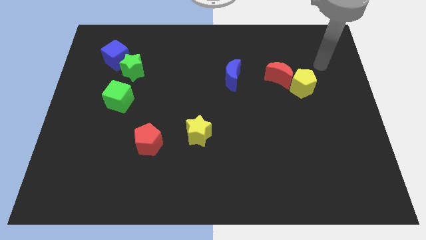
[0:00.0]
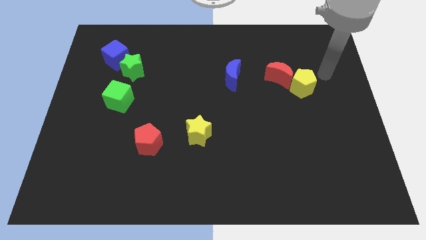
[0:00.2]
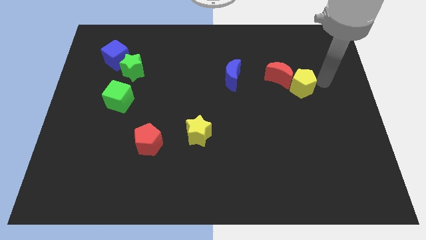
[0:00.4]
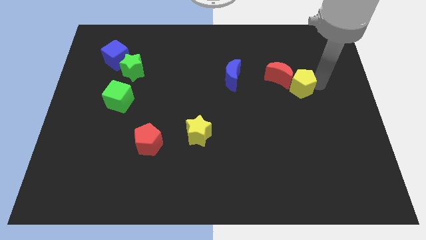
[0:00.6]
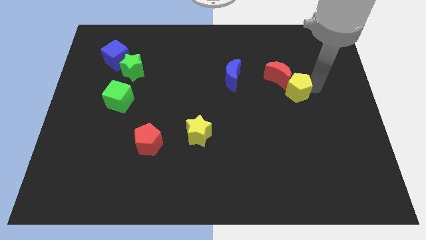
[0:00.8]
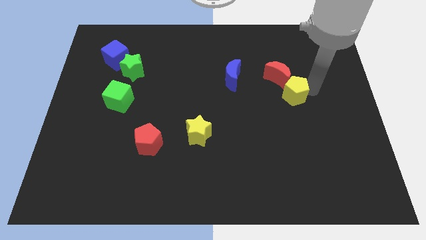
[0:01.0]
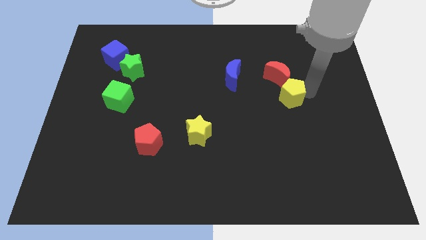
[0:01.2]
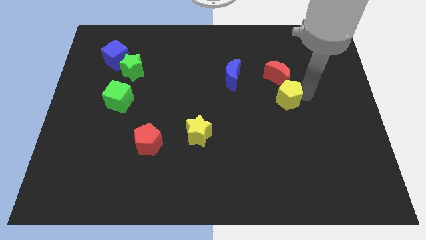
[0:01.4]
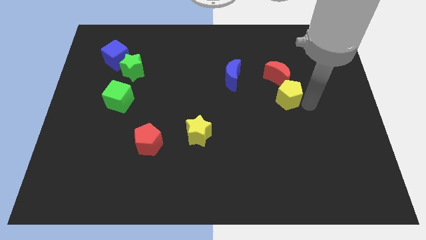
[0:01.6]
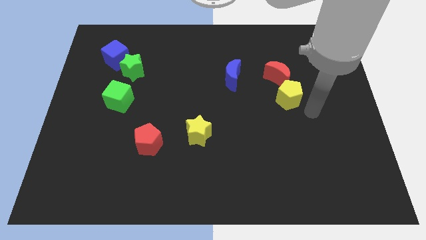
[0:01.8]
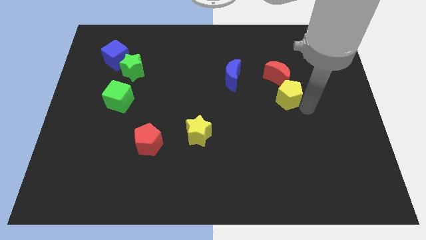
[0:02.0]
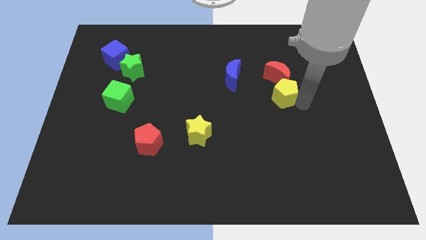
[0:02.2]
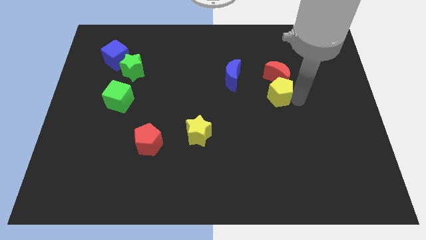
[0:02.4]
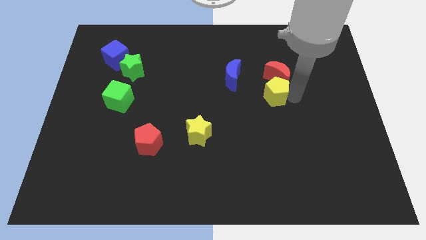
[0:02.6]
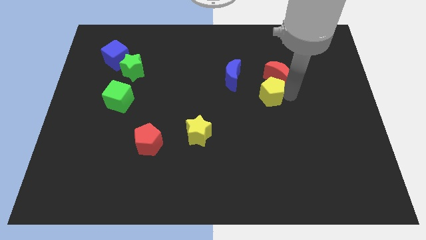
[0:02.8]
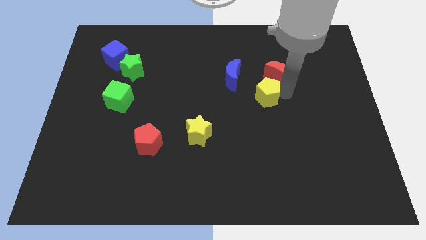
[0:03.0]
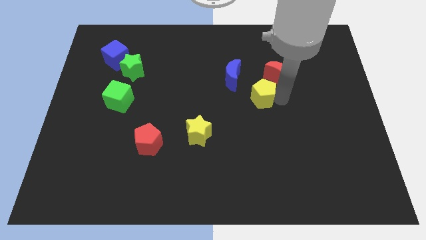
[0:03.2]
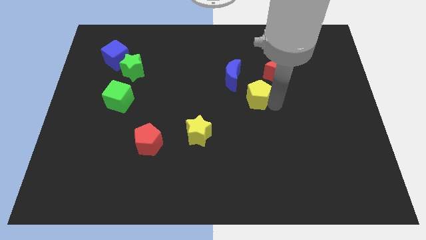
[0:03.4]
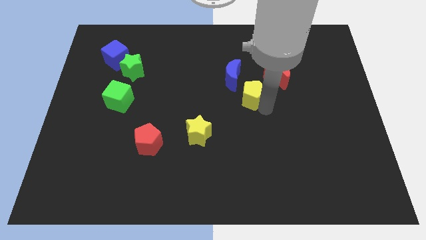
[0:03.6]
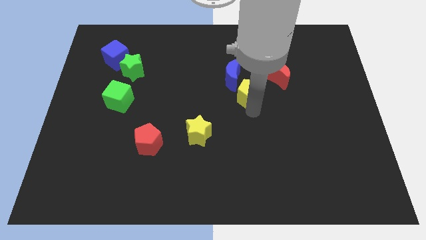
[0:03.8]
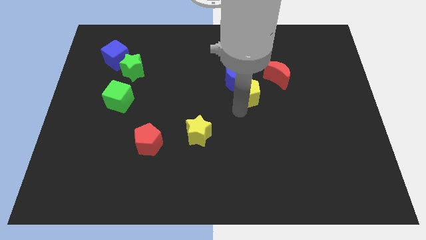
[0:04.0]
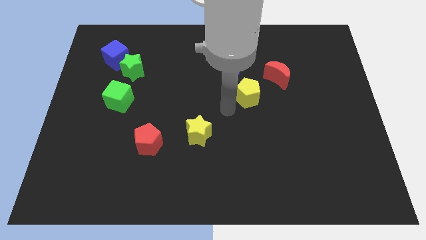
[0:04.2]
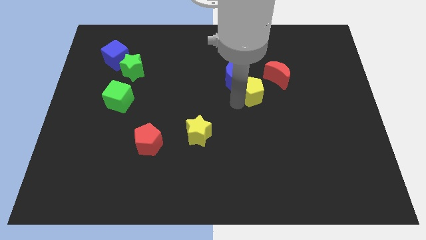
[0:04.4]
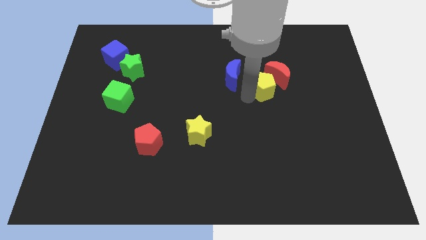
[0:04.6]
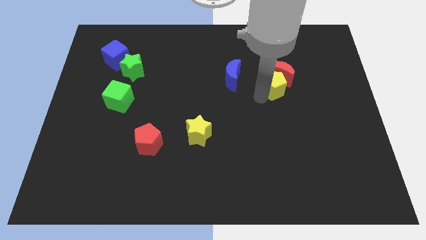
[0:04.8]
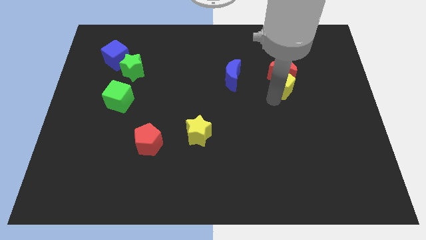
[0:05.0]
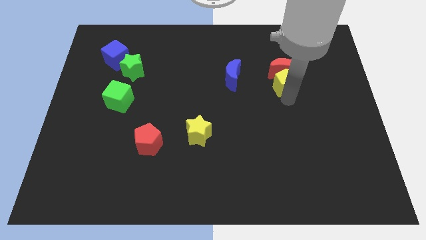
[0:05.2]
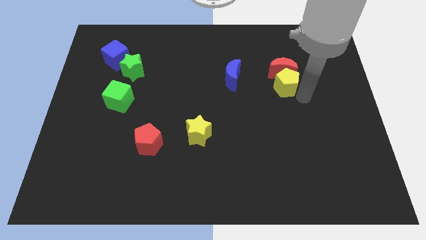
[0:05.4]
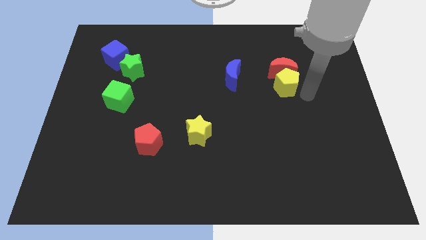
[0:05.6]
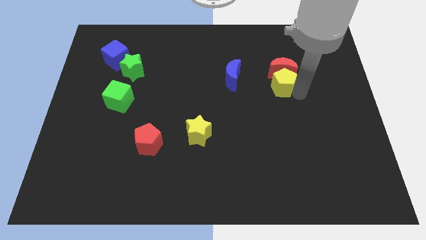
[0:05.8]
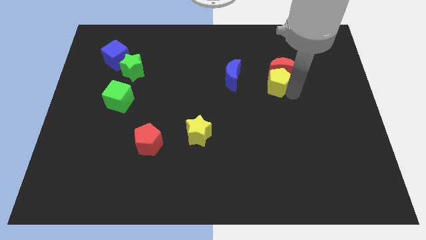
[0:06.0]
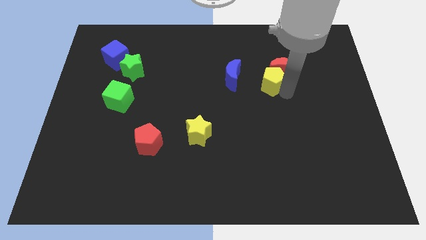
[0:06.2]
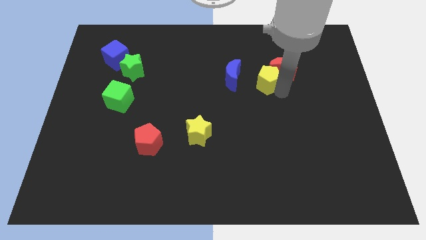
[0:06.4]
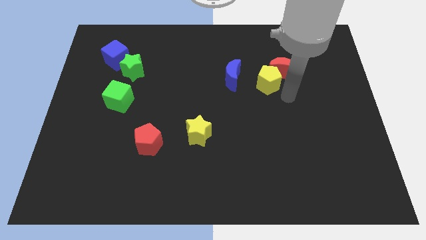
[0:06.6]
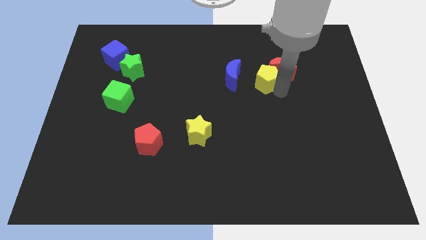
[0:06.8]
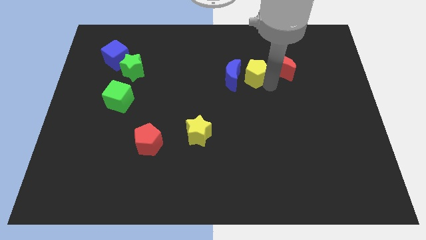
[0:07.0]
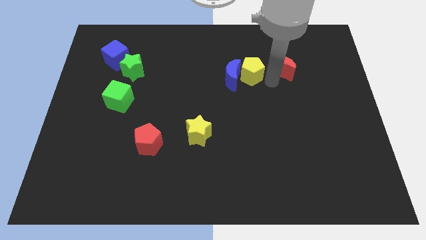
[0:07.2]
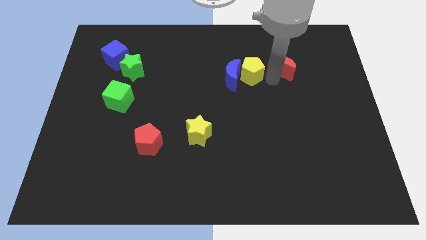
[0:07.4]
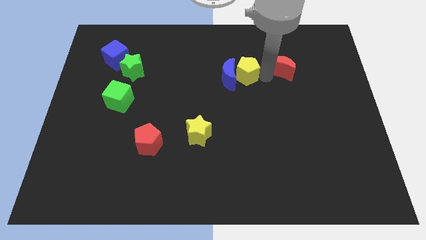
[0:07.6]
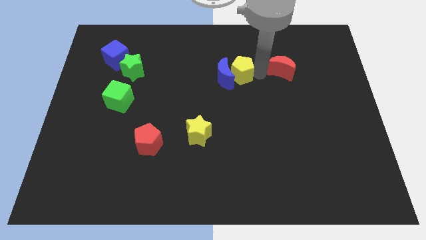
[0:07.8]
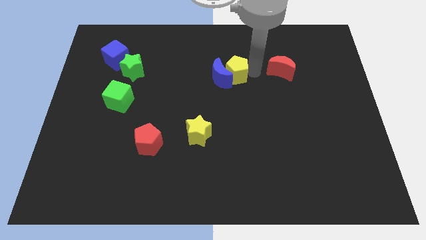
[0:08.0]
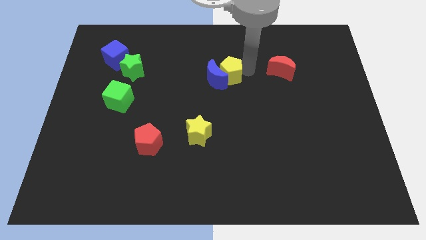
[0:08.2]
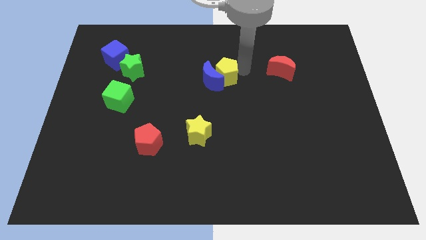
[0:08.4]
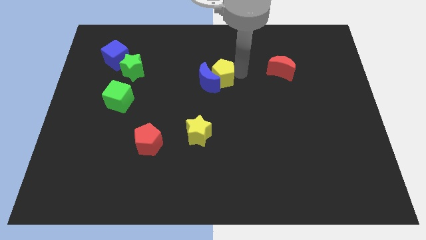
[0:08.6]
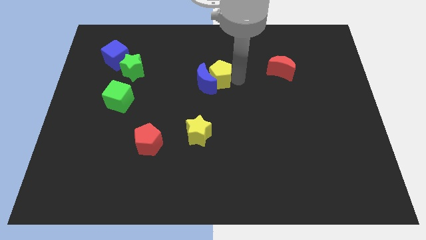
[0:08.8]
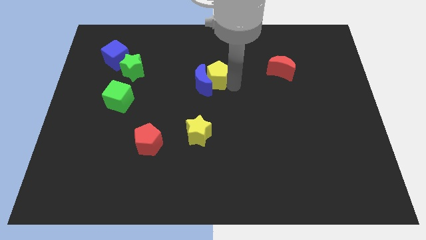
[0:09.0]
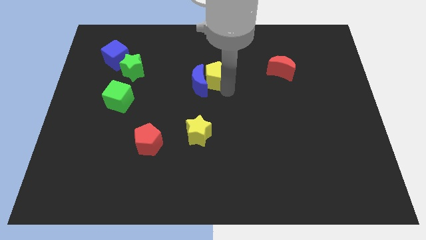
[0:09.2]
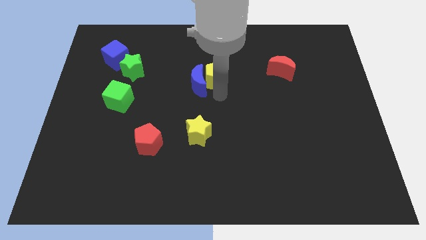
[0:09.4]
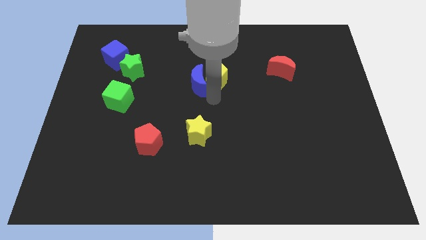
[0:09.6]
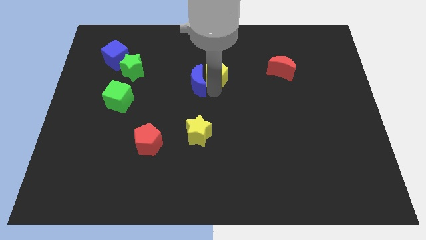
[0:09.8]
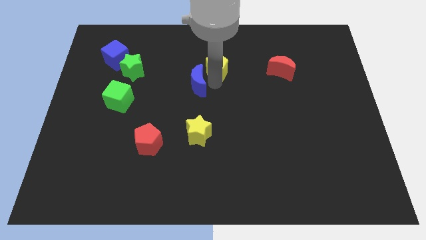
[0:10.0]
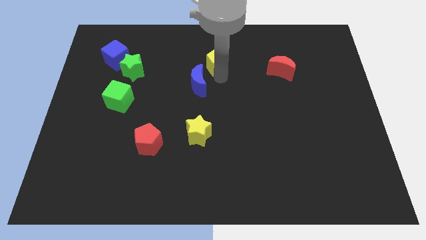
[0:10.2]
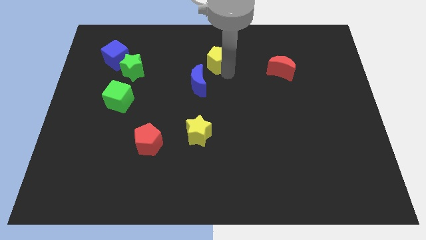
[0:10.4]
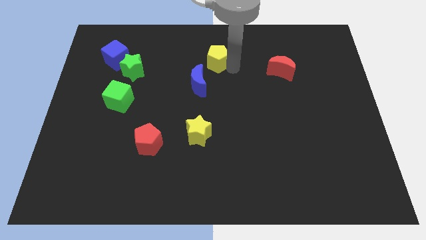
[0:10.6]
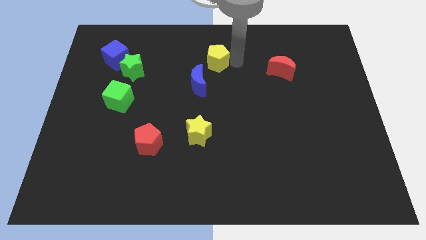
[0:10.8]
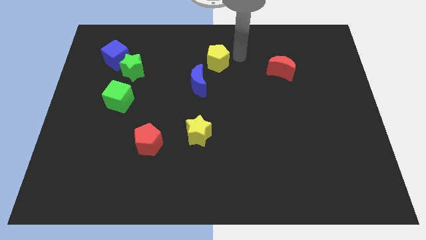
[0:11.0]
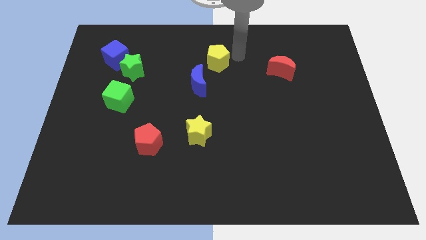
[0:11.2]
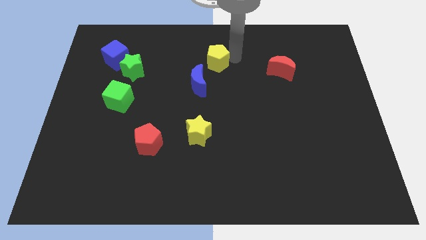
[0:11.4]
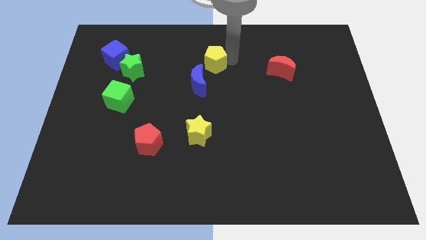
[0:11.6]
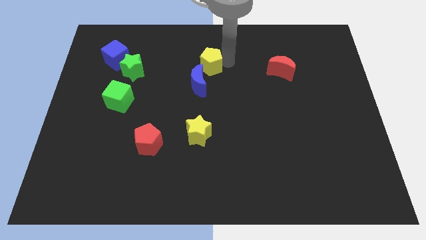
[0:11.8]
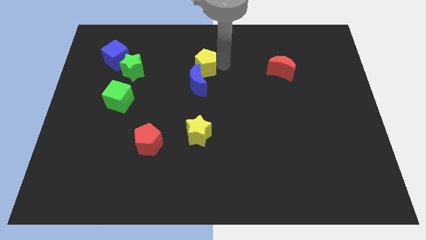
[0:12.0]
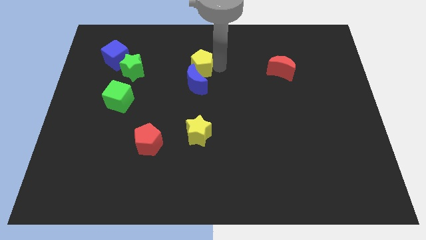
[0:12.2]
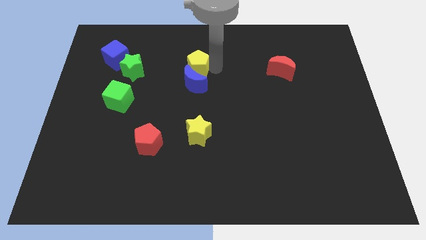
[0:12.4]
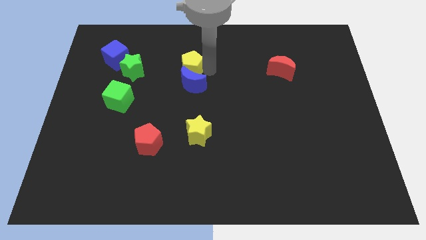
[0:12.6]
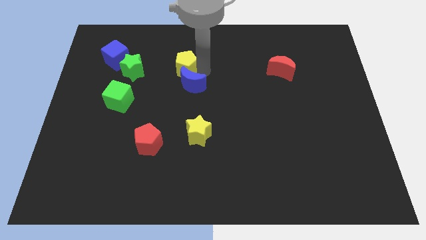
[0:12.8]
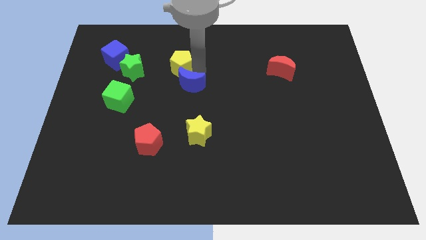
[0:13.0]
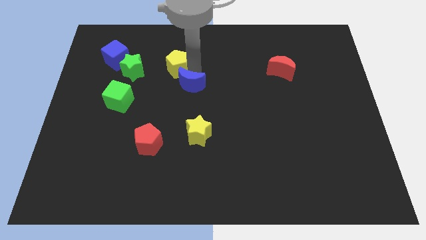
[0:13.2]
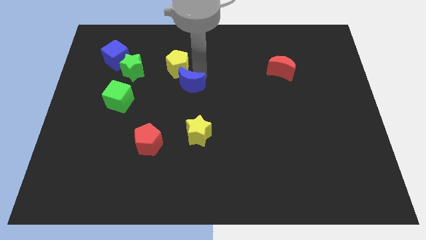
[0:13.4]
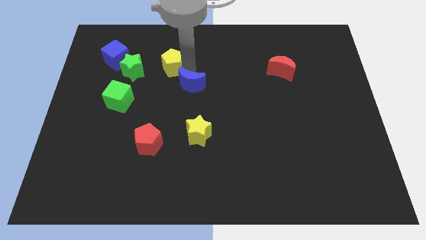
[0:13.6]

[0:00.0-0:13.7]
put the yellow pentagon to the right side of the blue cube

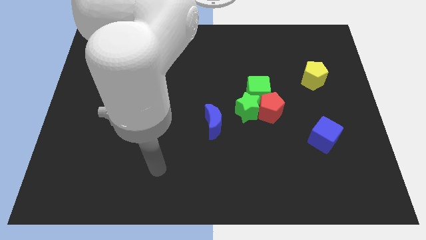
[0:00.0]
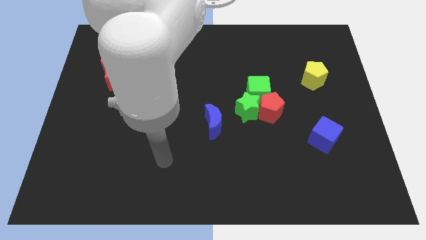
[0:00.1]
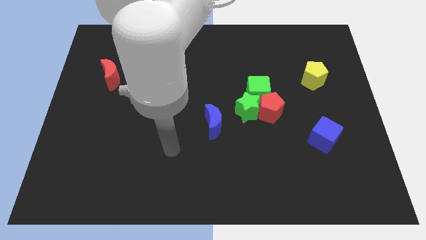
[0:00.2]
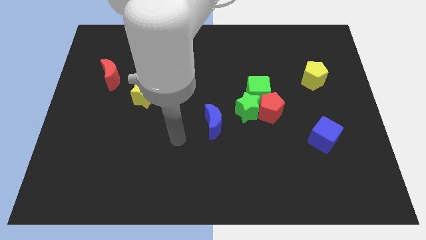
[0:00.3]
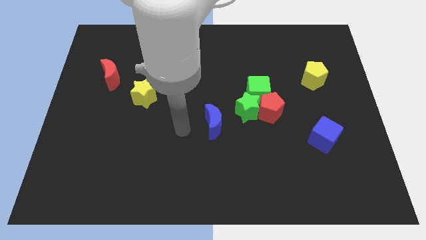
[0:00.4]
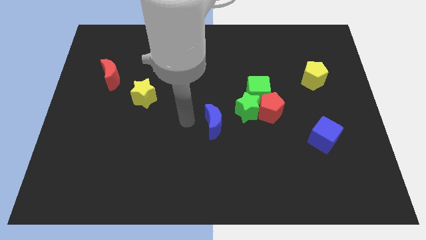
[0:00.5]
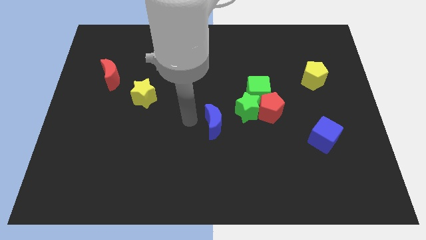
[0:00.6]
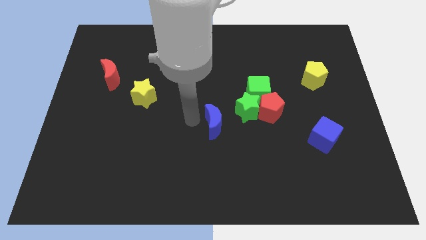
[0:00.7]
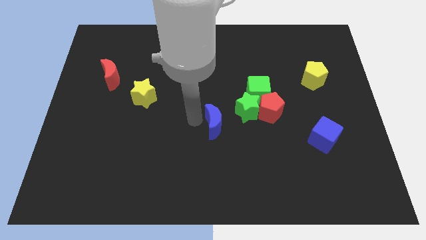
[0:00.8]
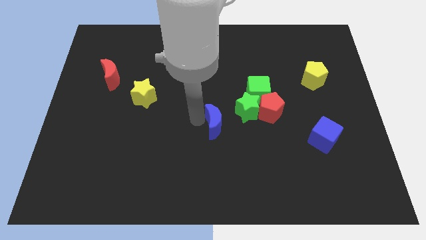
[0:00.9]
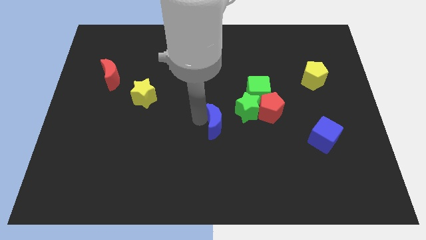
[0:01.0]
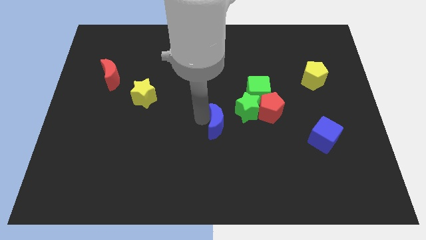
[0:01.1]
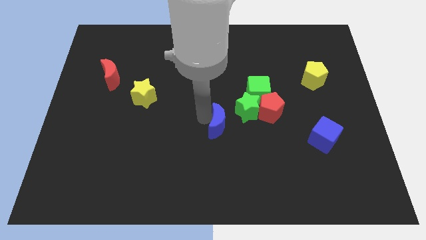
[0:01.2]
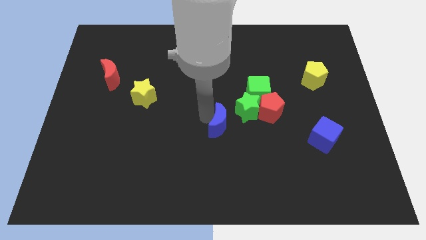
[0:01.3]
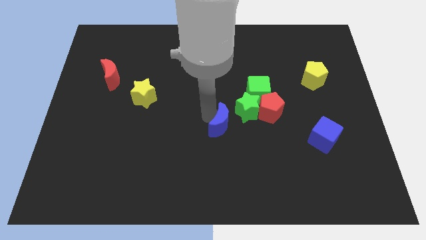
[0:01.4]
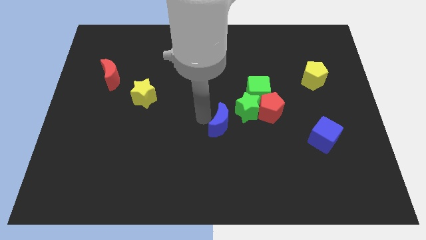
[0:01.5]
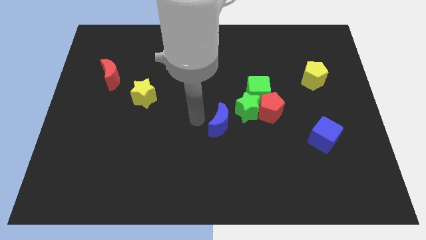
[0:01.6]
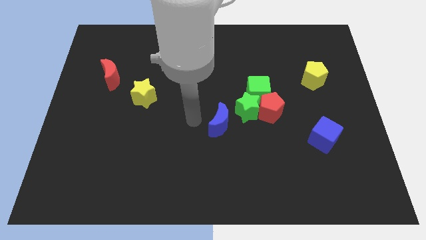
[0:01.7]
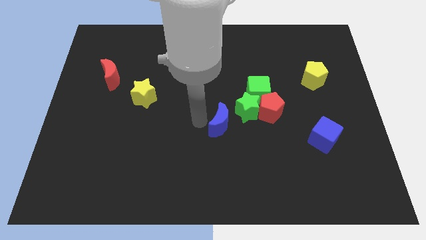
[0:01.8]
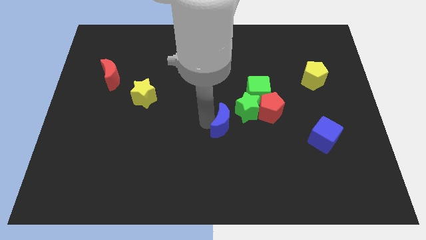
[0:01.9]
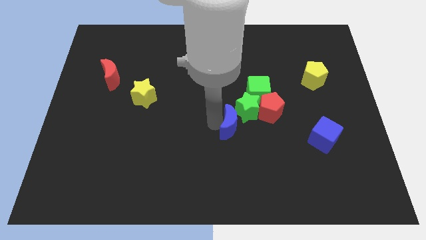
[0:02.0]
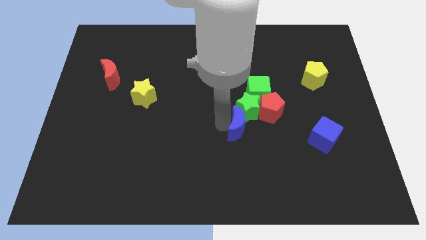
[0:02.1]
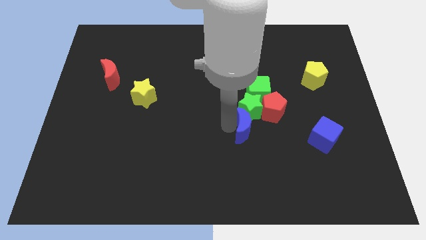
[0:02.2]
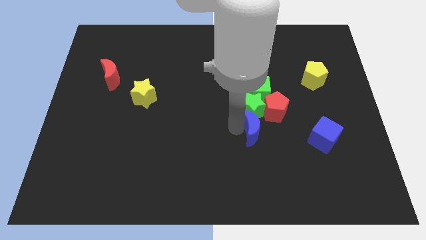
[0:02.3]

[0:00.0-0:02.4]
move the blue moon diagonally down and to the right of the green star
